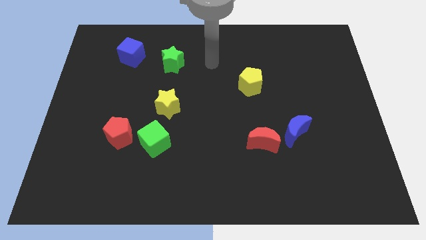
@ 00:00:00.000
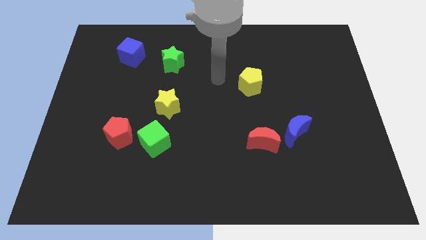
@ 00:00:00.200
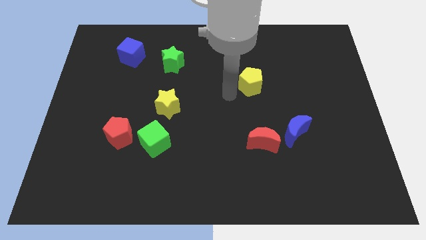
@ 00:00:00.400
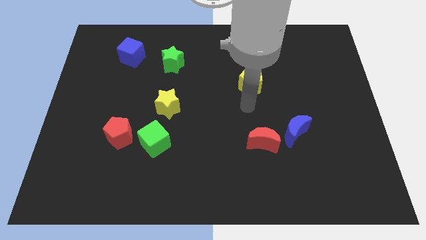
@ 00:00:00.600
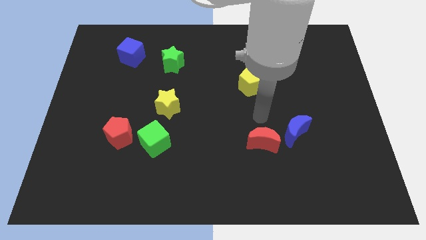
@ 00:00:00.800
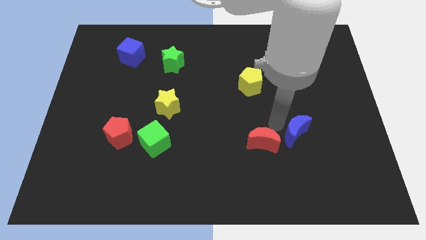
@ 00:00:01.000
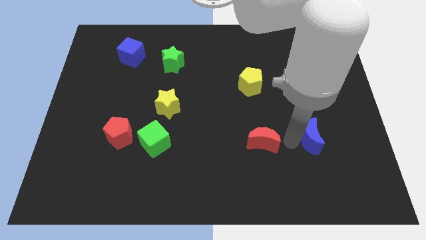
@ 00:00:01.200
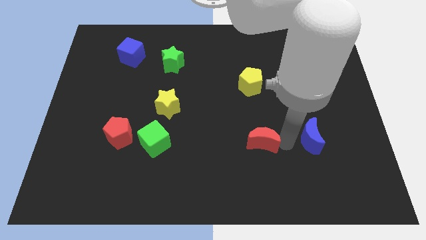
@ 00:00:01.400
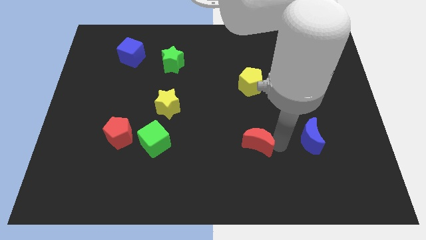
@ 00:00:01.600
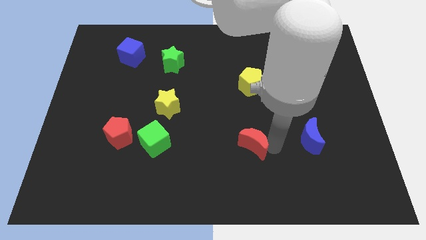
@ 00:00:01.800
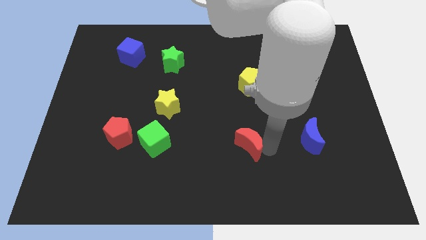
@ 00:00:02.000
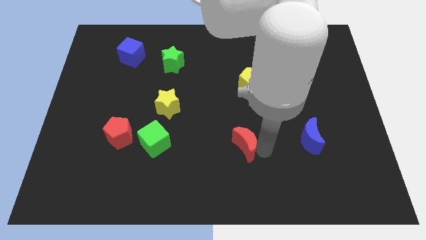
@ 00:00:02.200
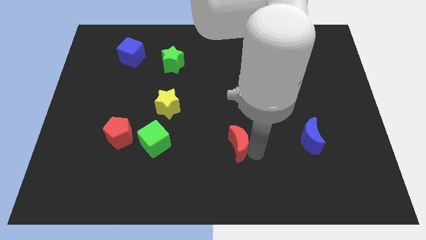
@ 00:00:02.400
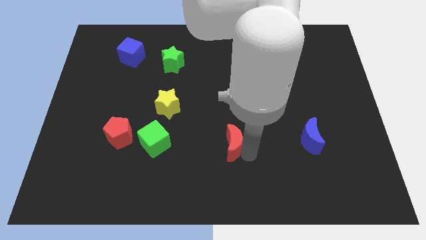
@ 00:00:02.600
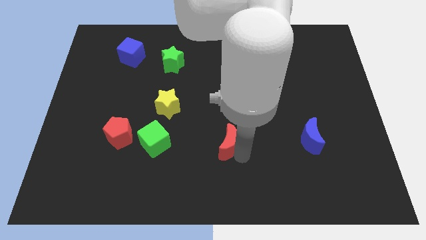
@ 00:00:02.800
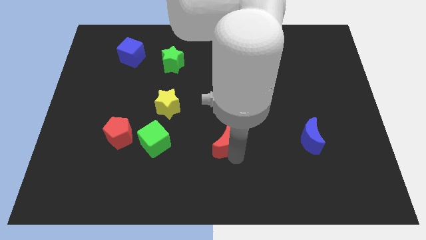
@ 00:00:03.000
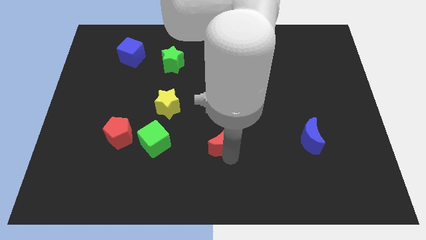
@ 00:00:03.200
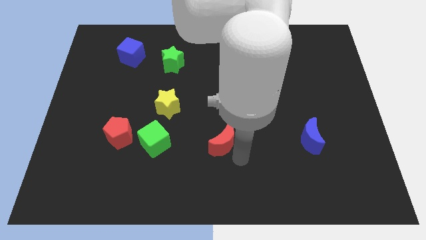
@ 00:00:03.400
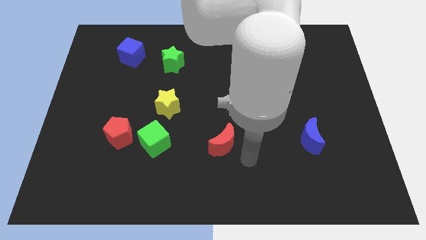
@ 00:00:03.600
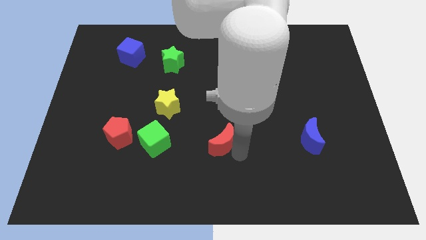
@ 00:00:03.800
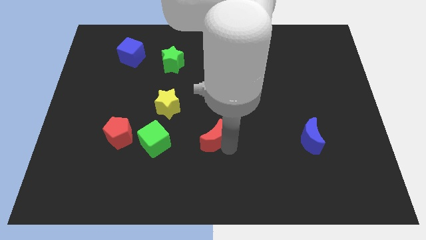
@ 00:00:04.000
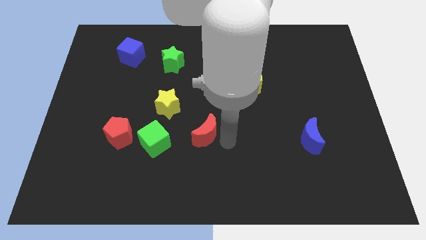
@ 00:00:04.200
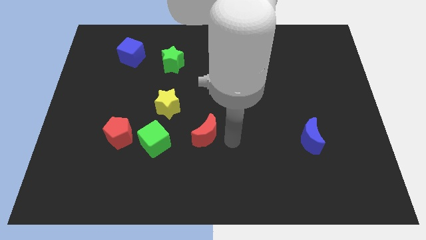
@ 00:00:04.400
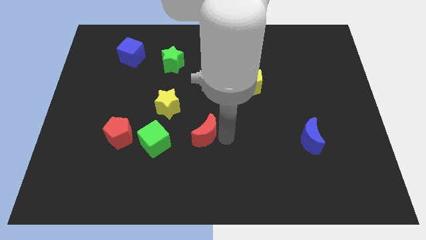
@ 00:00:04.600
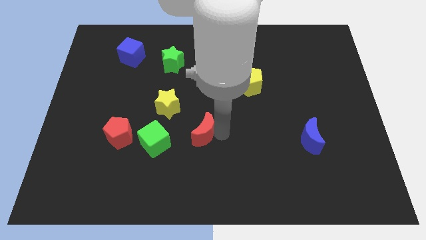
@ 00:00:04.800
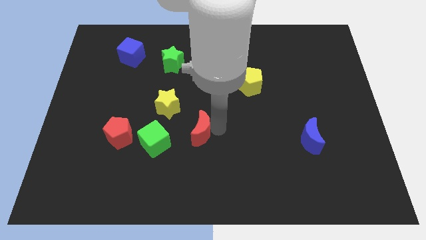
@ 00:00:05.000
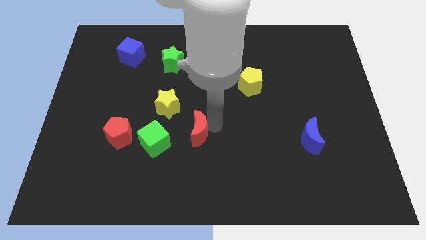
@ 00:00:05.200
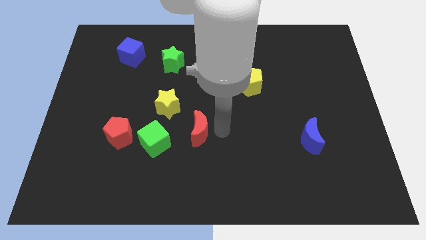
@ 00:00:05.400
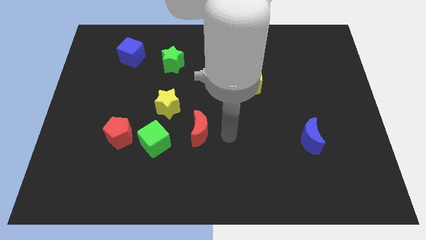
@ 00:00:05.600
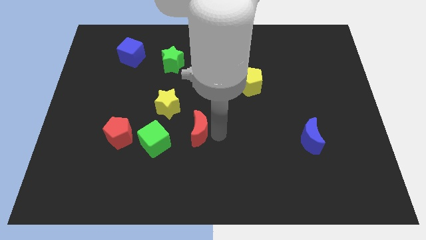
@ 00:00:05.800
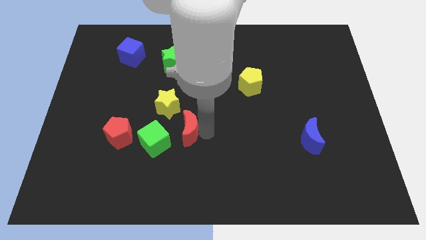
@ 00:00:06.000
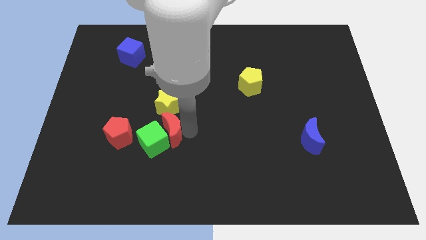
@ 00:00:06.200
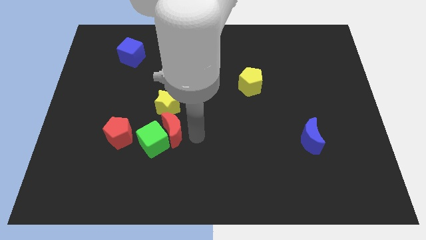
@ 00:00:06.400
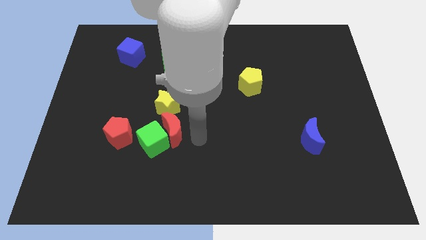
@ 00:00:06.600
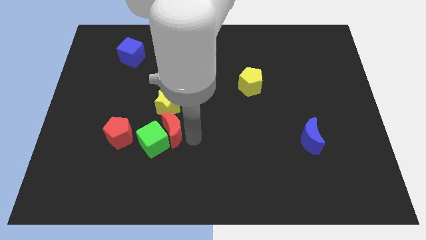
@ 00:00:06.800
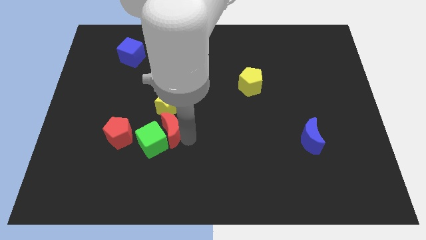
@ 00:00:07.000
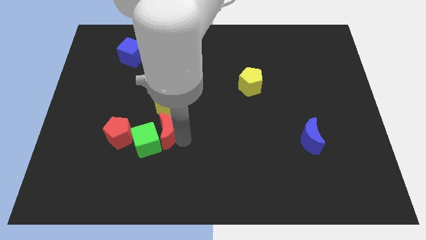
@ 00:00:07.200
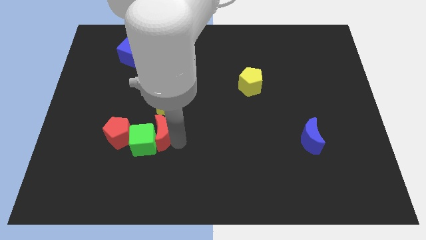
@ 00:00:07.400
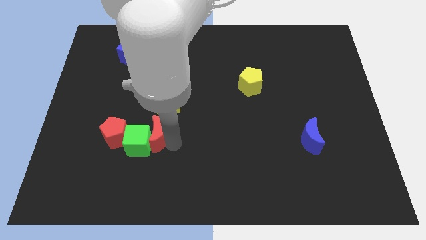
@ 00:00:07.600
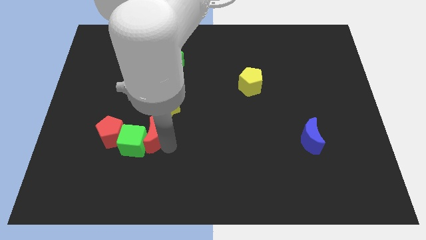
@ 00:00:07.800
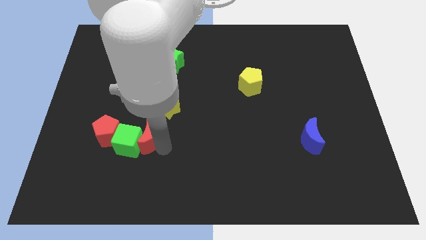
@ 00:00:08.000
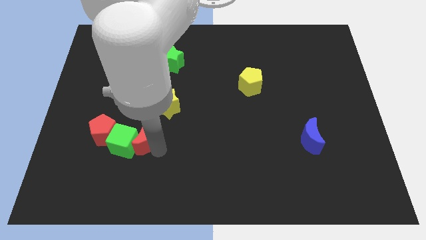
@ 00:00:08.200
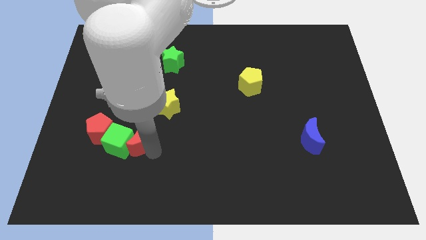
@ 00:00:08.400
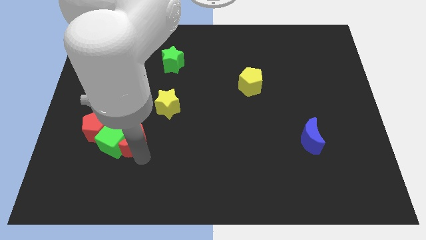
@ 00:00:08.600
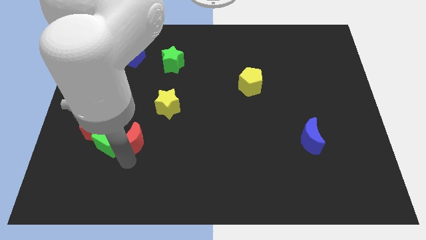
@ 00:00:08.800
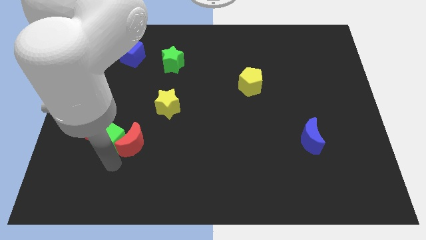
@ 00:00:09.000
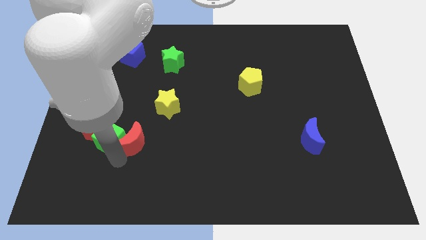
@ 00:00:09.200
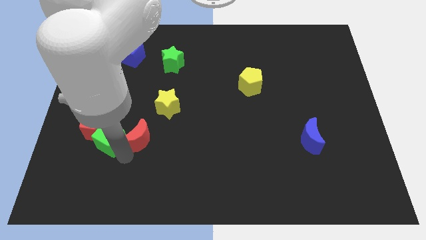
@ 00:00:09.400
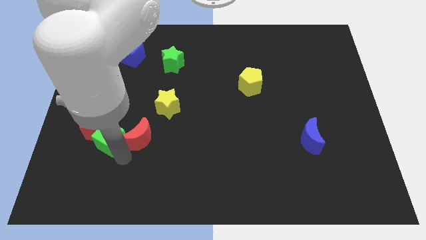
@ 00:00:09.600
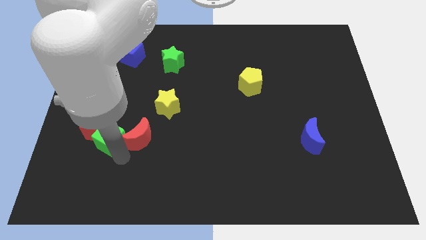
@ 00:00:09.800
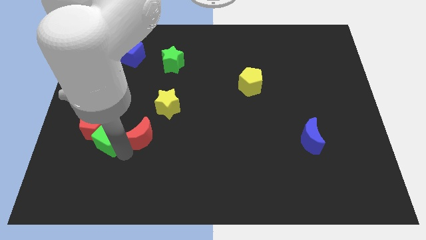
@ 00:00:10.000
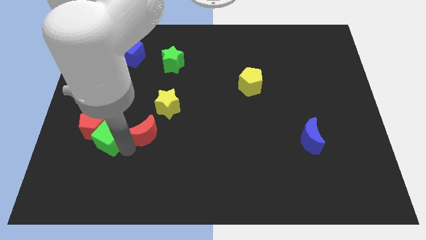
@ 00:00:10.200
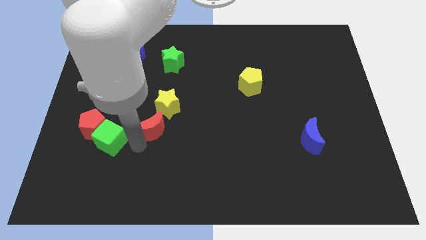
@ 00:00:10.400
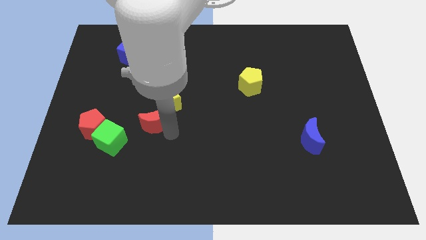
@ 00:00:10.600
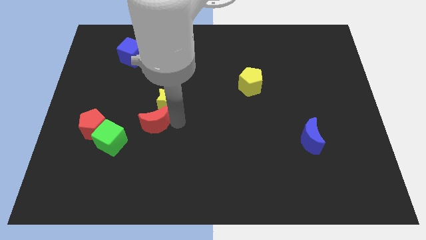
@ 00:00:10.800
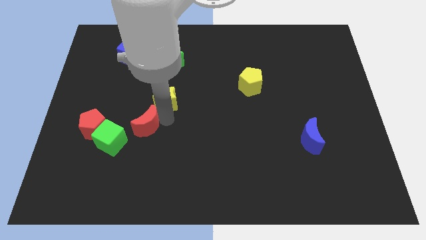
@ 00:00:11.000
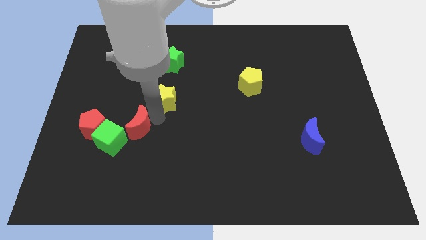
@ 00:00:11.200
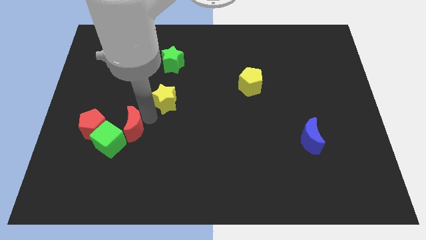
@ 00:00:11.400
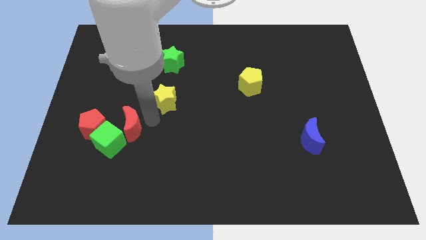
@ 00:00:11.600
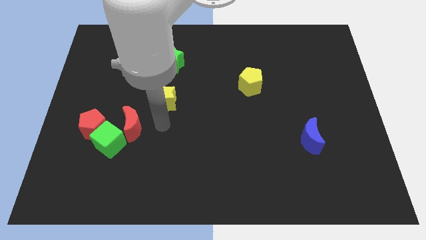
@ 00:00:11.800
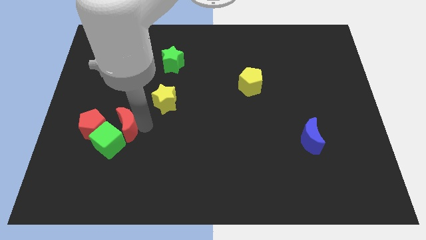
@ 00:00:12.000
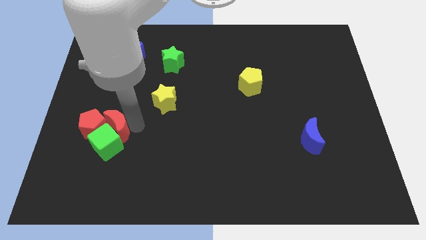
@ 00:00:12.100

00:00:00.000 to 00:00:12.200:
push the red moon next to the red pentagon

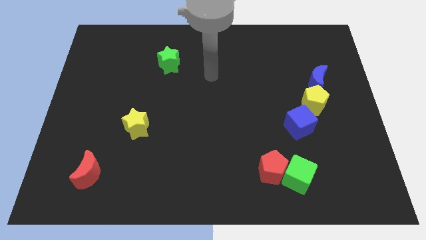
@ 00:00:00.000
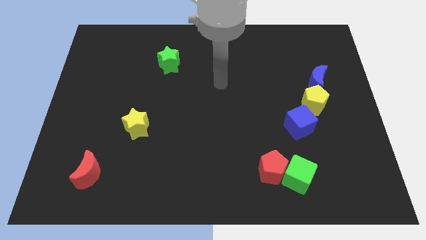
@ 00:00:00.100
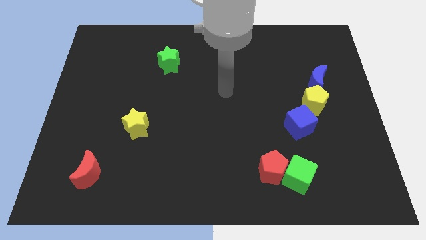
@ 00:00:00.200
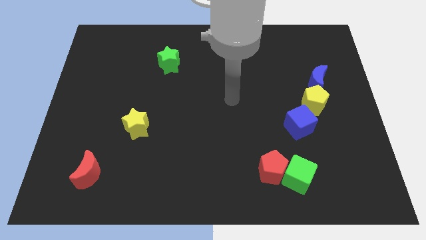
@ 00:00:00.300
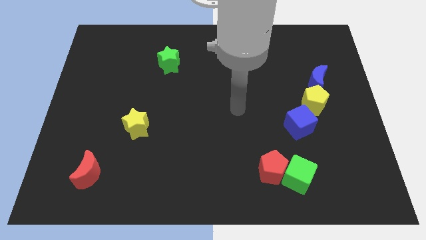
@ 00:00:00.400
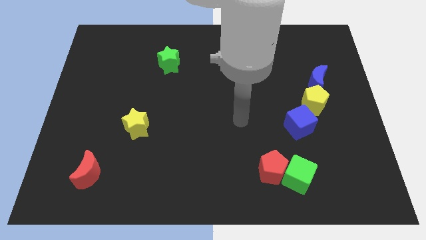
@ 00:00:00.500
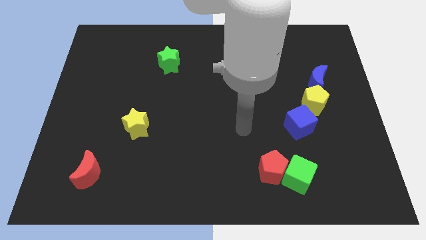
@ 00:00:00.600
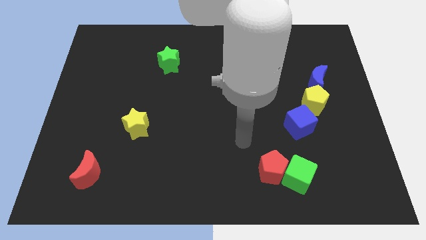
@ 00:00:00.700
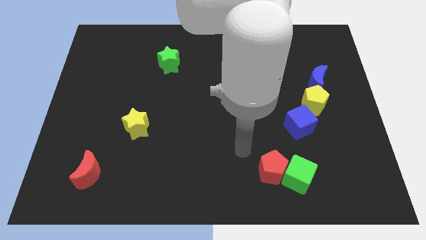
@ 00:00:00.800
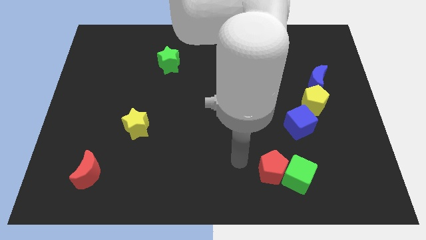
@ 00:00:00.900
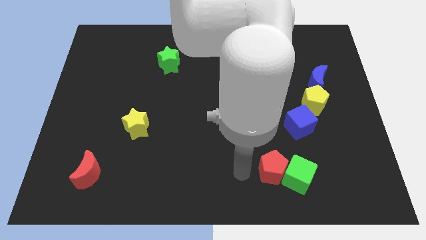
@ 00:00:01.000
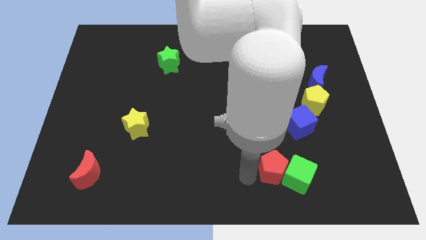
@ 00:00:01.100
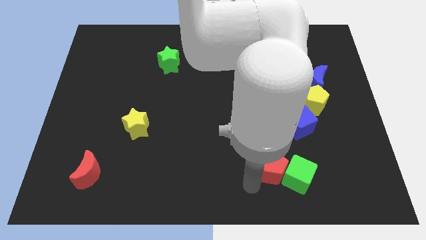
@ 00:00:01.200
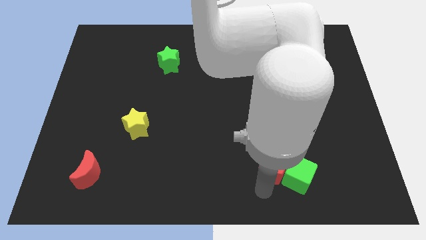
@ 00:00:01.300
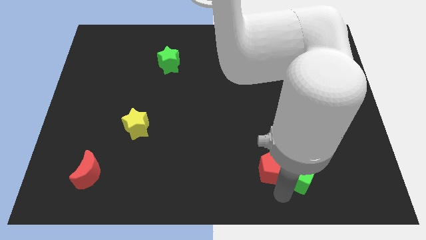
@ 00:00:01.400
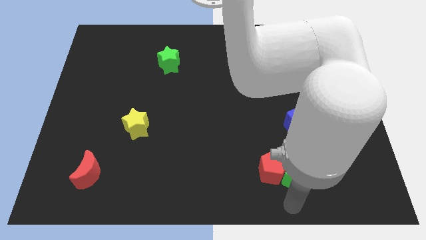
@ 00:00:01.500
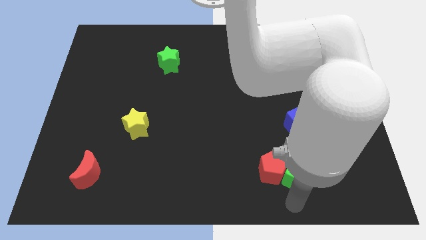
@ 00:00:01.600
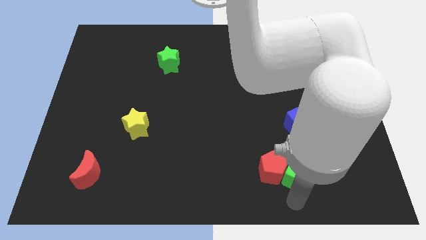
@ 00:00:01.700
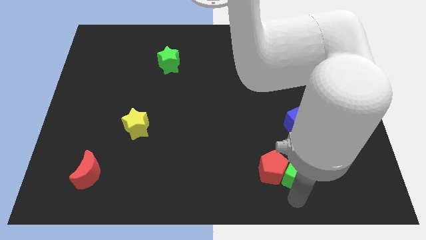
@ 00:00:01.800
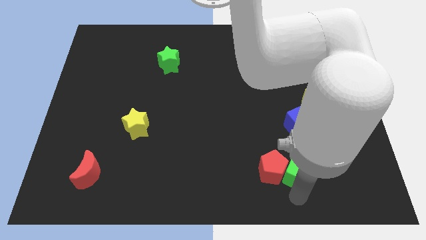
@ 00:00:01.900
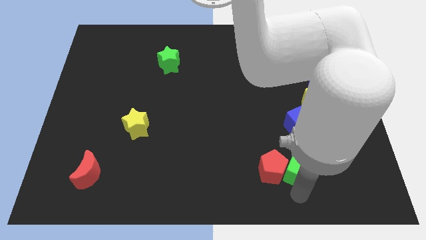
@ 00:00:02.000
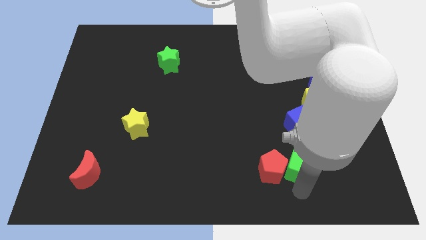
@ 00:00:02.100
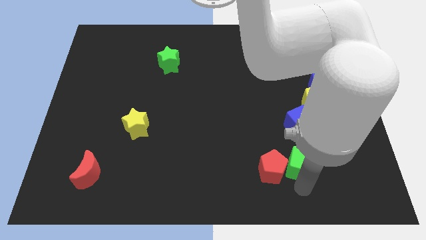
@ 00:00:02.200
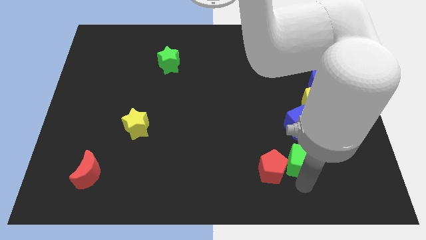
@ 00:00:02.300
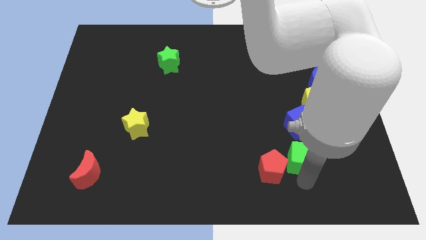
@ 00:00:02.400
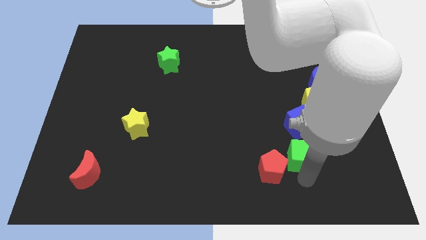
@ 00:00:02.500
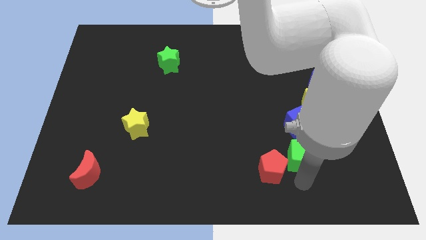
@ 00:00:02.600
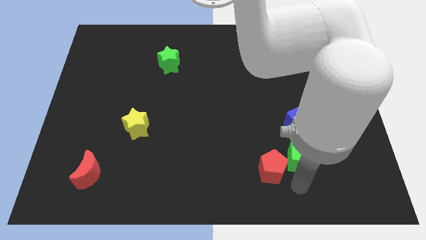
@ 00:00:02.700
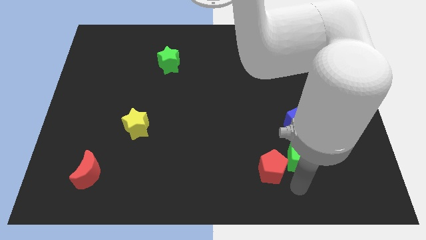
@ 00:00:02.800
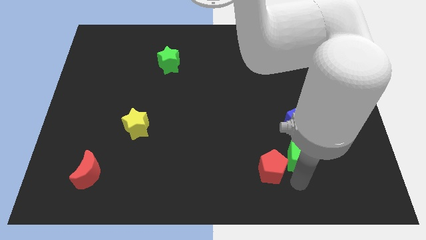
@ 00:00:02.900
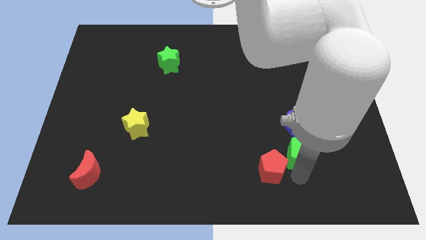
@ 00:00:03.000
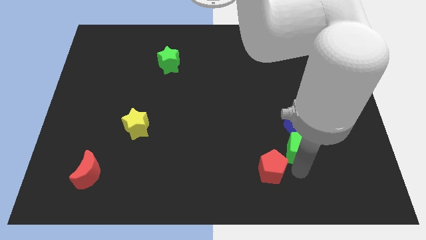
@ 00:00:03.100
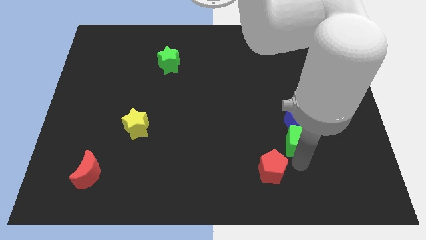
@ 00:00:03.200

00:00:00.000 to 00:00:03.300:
move the green cube to the blue cube
